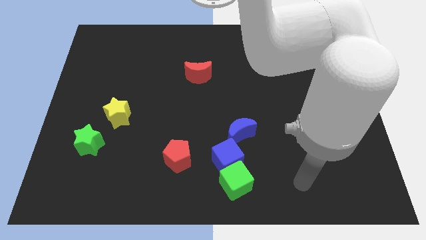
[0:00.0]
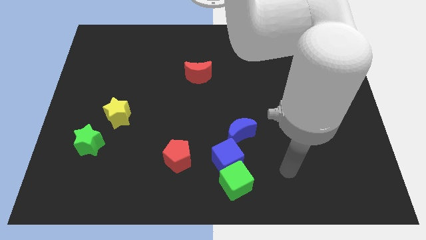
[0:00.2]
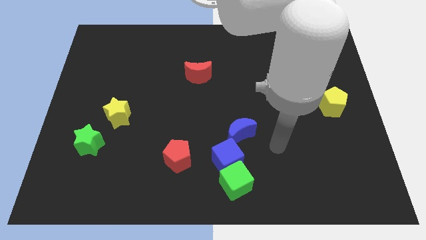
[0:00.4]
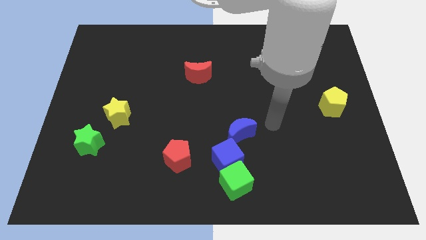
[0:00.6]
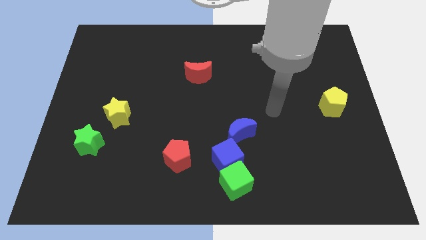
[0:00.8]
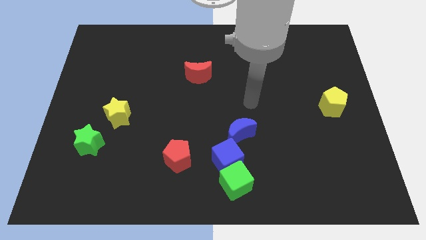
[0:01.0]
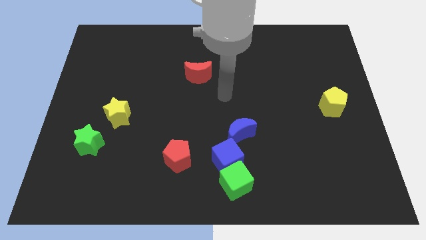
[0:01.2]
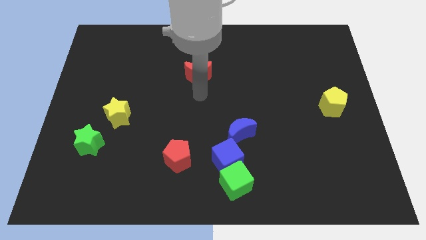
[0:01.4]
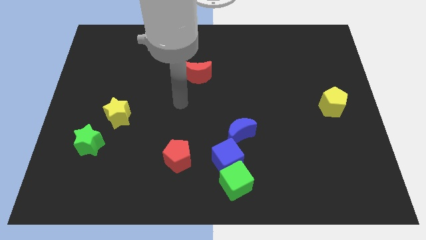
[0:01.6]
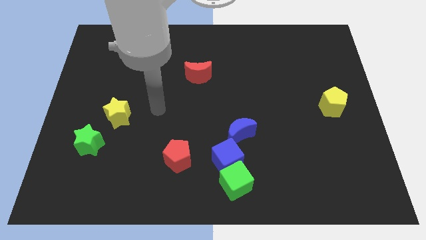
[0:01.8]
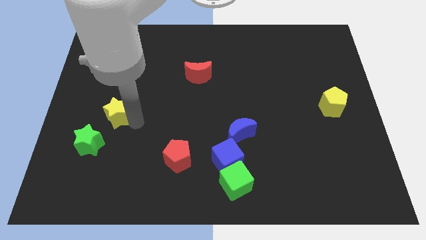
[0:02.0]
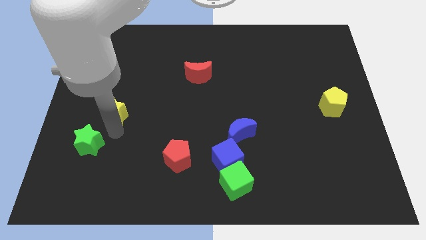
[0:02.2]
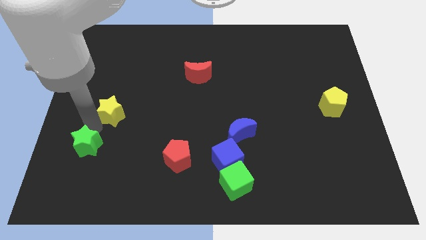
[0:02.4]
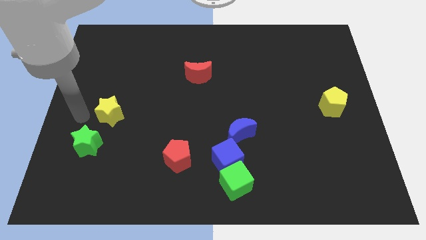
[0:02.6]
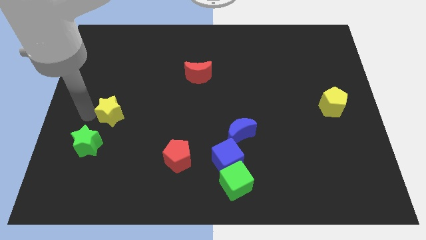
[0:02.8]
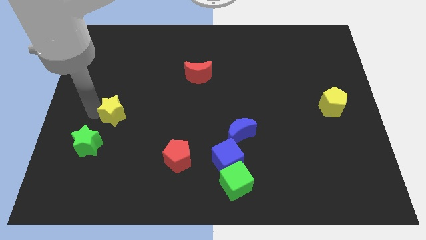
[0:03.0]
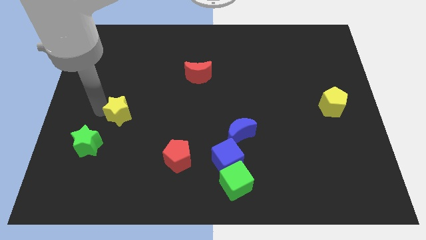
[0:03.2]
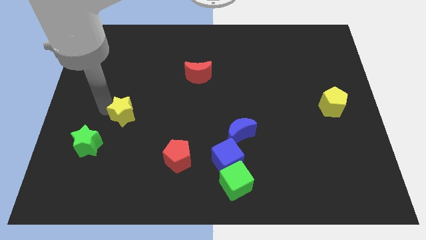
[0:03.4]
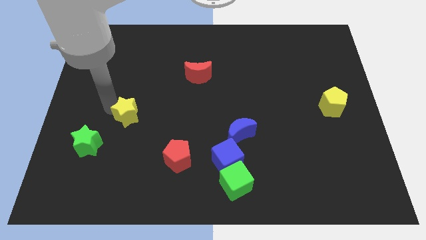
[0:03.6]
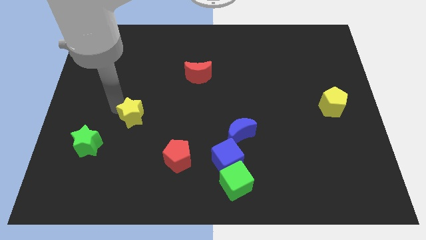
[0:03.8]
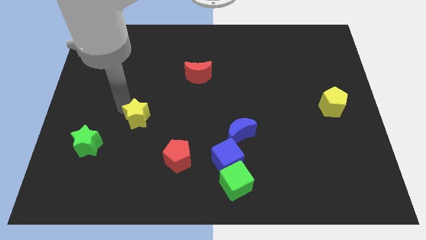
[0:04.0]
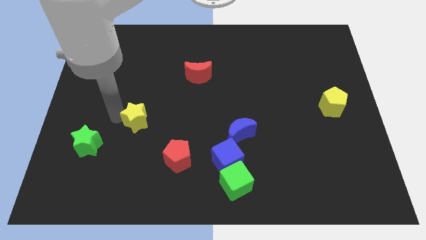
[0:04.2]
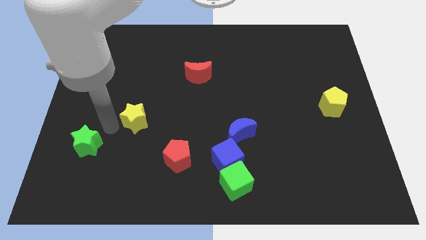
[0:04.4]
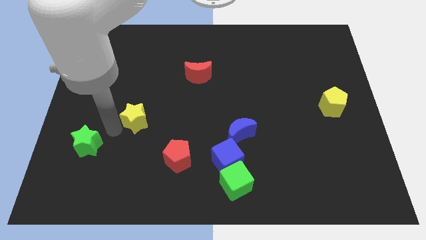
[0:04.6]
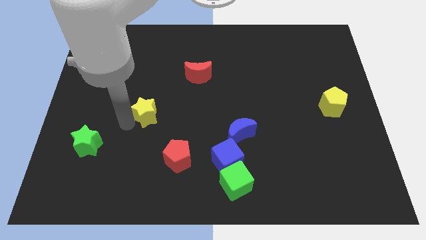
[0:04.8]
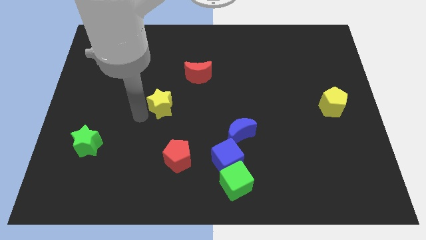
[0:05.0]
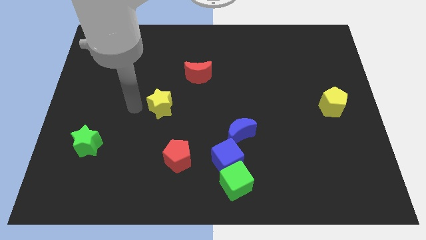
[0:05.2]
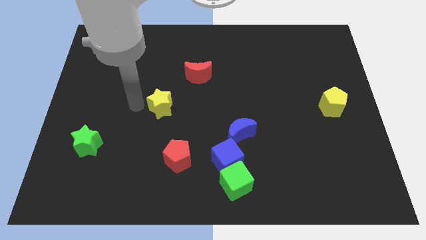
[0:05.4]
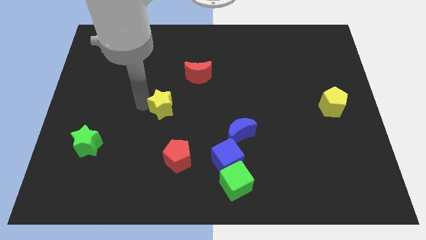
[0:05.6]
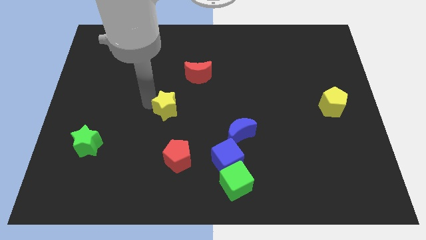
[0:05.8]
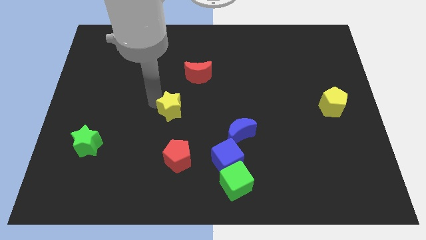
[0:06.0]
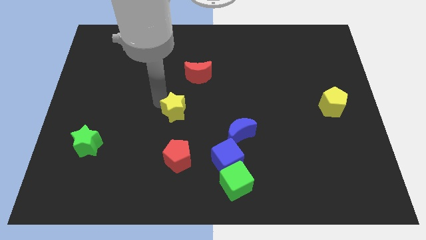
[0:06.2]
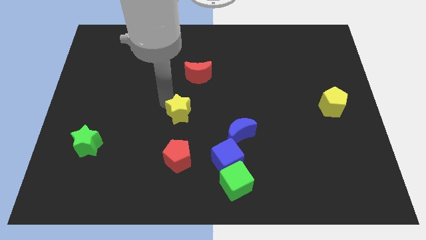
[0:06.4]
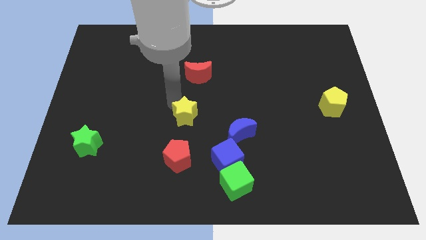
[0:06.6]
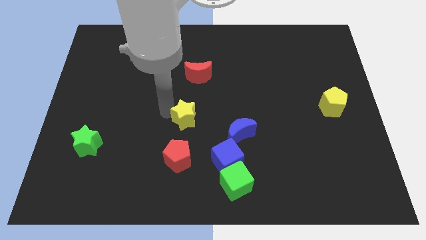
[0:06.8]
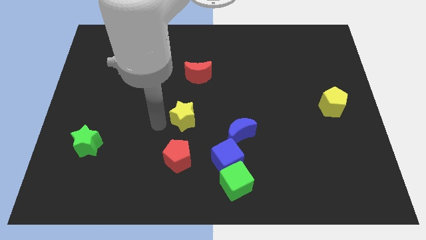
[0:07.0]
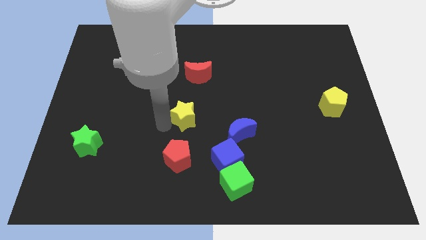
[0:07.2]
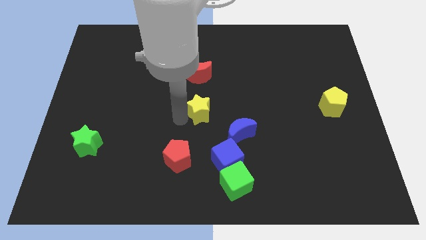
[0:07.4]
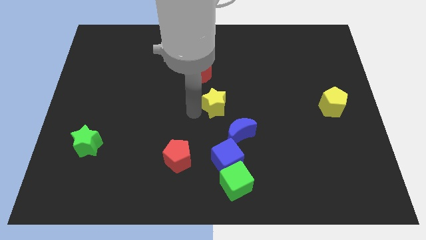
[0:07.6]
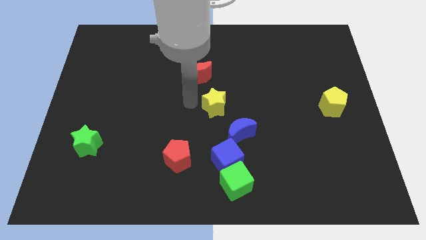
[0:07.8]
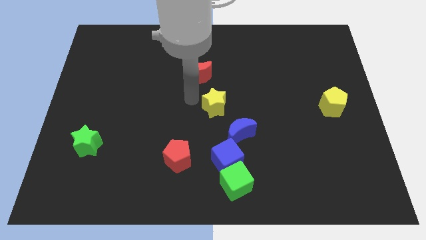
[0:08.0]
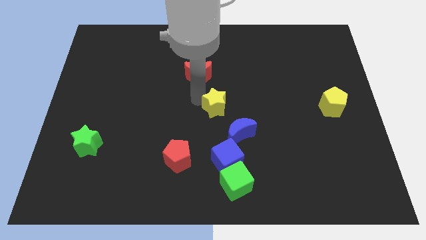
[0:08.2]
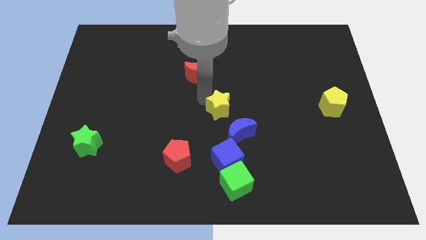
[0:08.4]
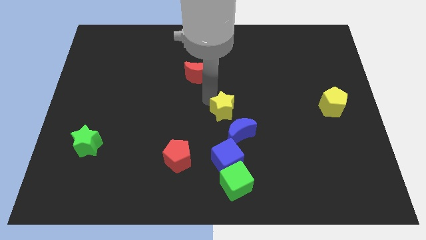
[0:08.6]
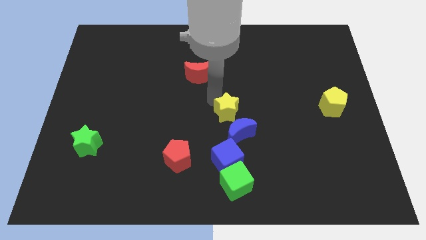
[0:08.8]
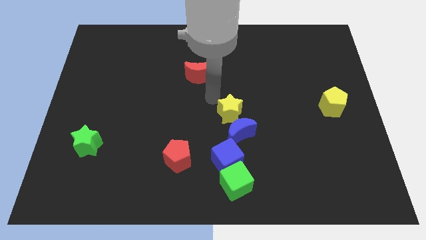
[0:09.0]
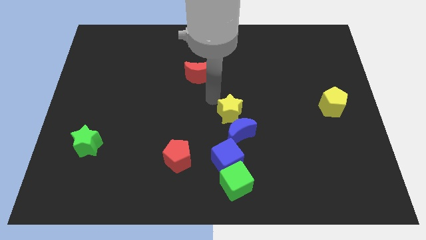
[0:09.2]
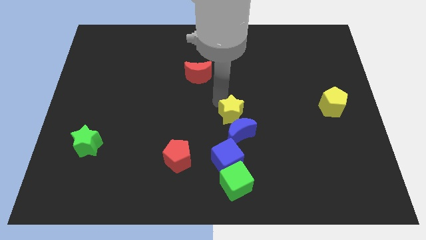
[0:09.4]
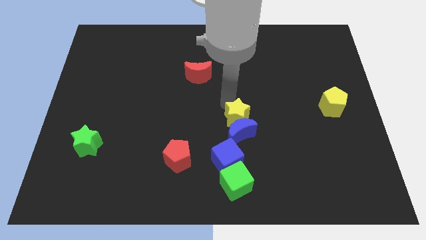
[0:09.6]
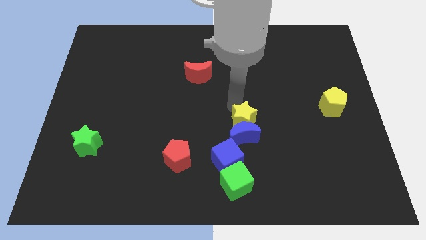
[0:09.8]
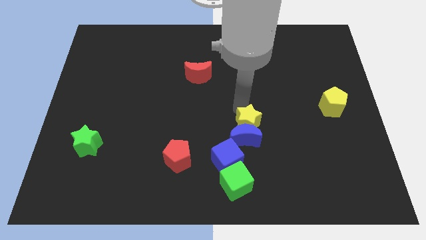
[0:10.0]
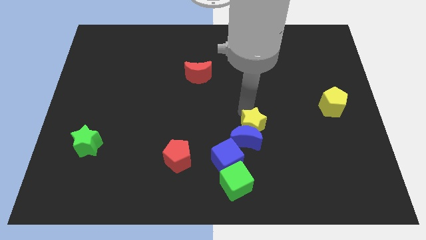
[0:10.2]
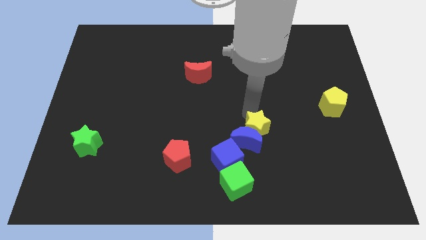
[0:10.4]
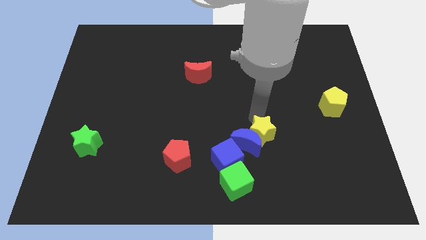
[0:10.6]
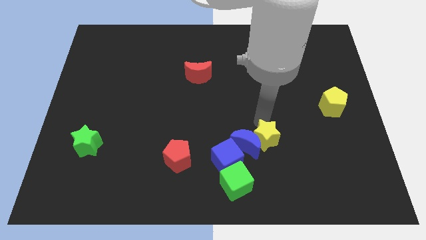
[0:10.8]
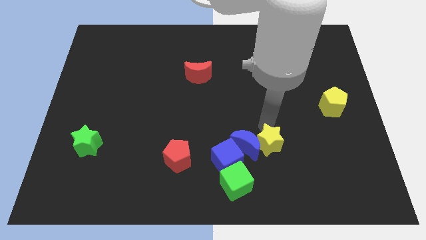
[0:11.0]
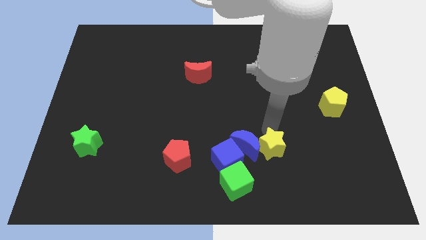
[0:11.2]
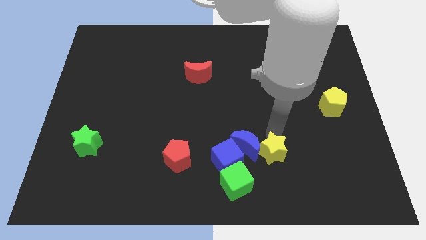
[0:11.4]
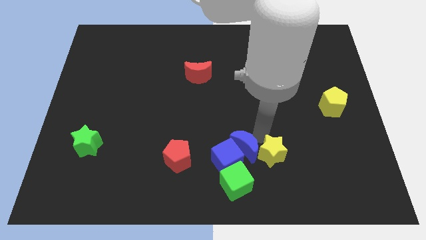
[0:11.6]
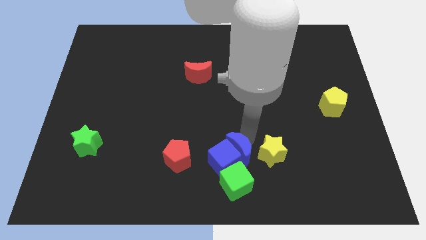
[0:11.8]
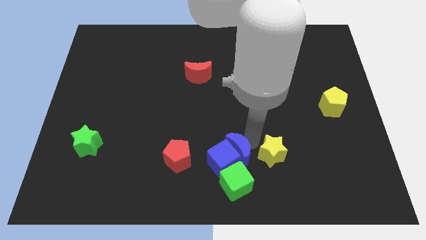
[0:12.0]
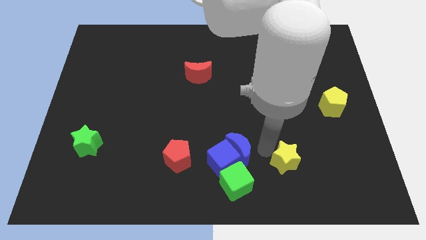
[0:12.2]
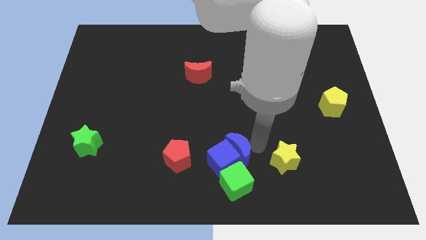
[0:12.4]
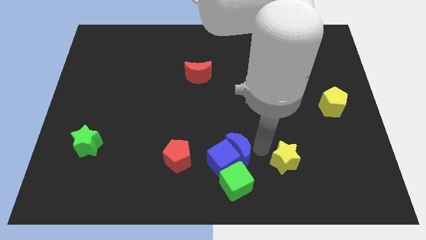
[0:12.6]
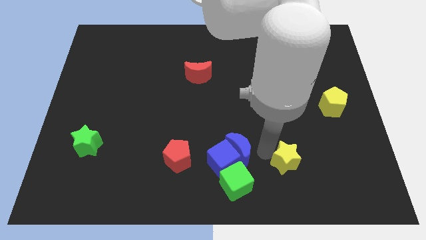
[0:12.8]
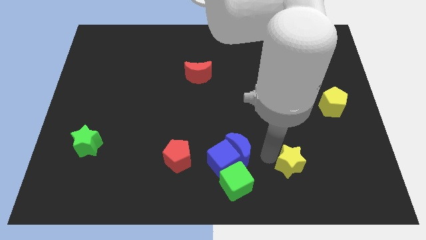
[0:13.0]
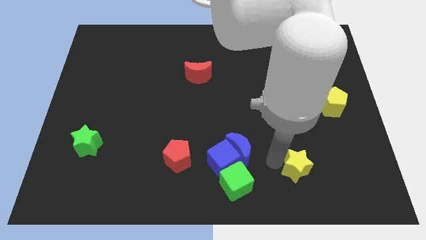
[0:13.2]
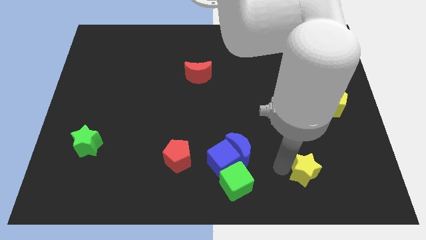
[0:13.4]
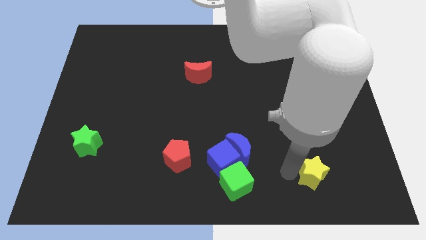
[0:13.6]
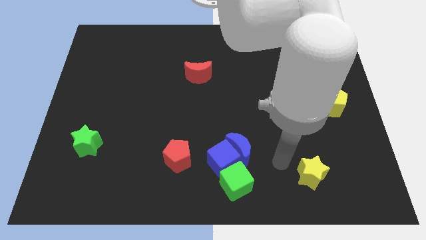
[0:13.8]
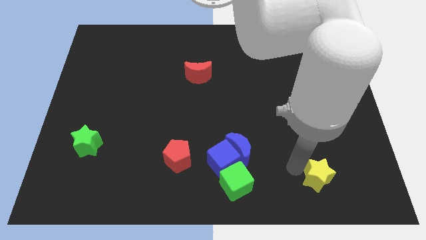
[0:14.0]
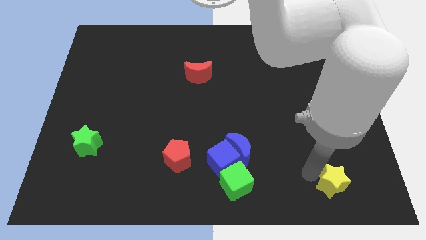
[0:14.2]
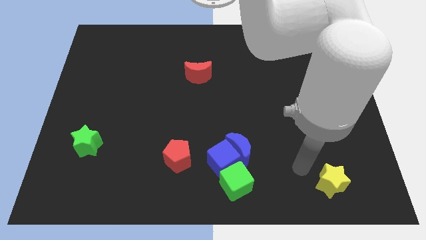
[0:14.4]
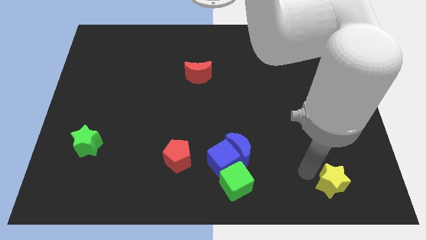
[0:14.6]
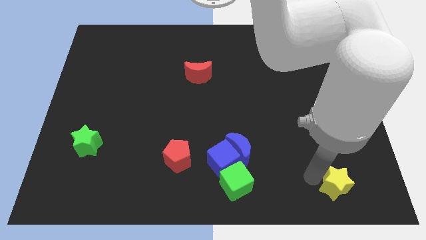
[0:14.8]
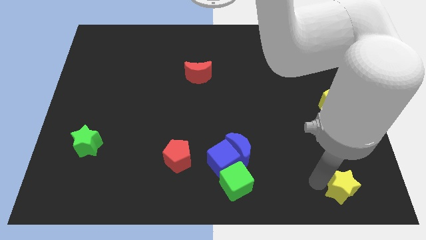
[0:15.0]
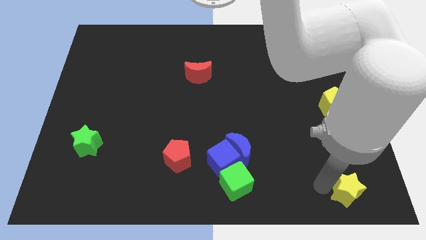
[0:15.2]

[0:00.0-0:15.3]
put the yellow star to the bottom right of the board
